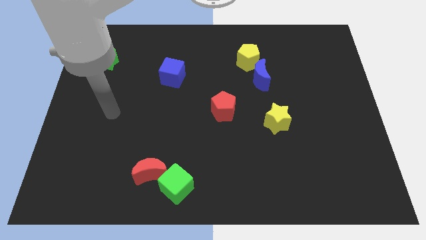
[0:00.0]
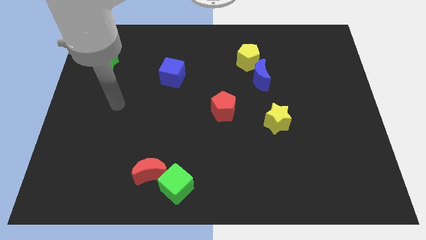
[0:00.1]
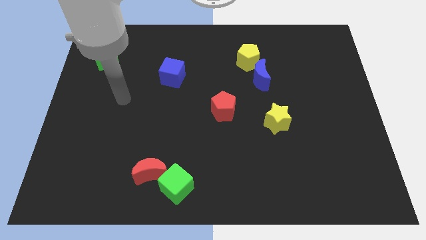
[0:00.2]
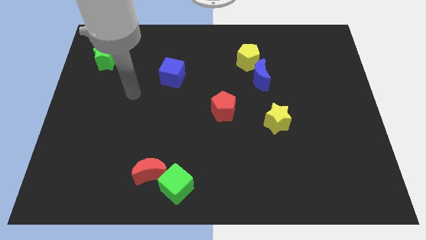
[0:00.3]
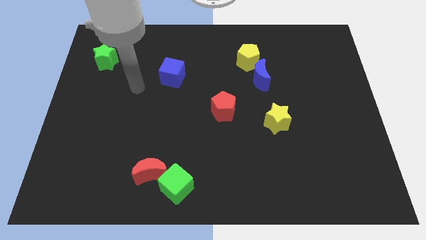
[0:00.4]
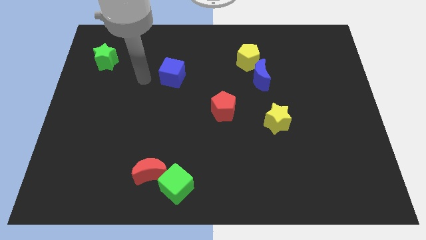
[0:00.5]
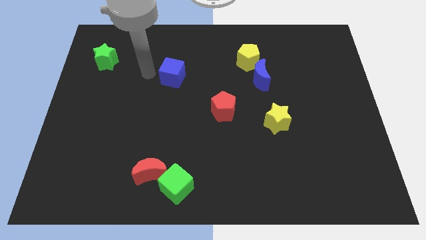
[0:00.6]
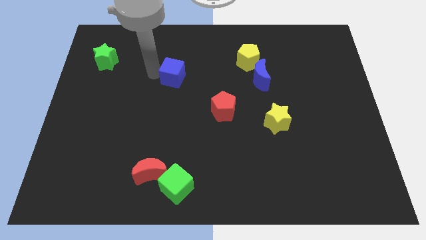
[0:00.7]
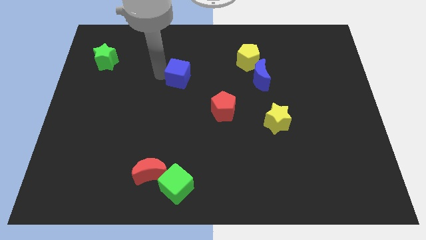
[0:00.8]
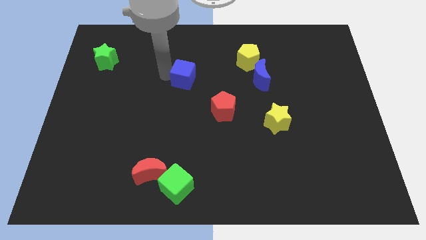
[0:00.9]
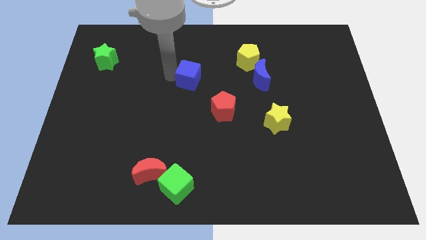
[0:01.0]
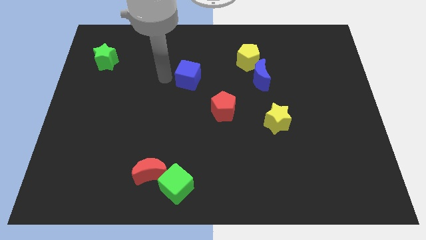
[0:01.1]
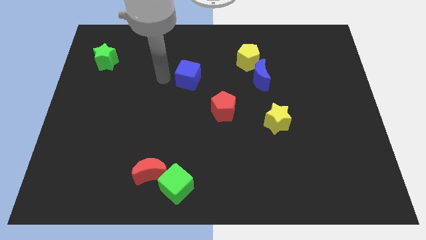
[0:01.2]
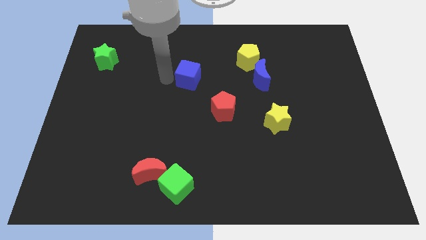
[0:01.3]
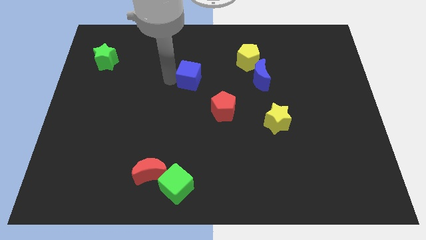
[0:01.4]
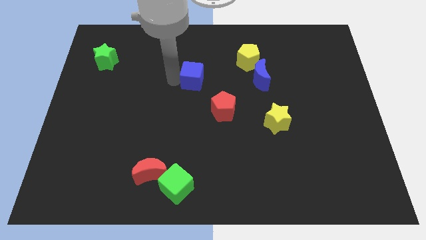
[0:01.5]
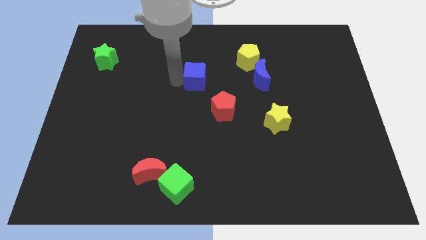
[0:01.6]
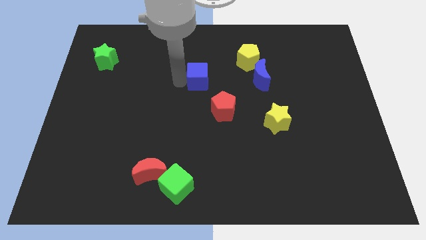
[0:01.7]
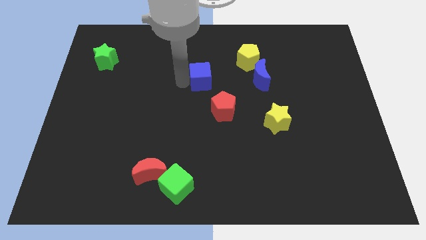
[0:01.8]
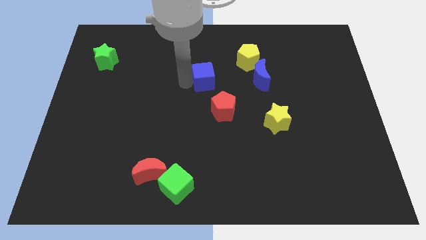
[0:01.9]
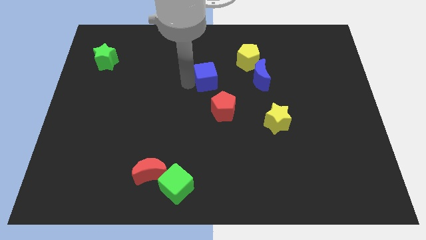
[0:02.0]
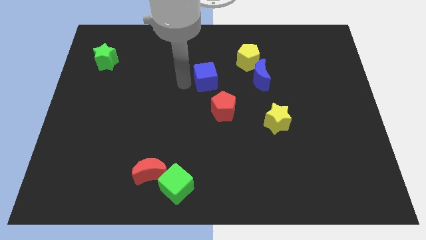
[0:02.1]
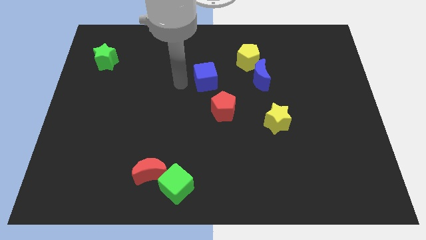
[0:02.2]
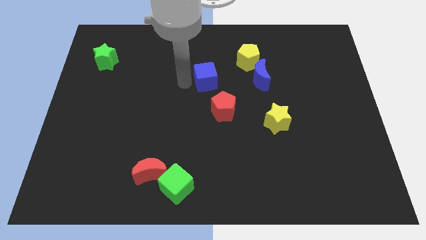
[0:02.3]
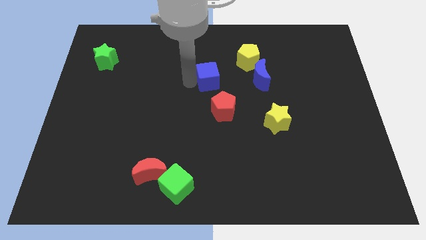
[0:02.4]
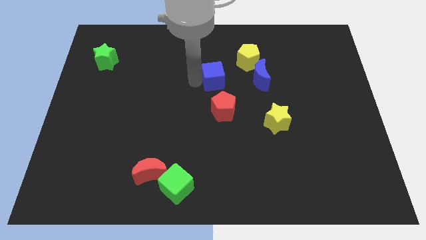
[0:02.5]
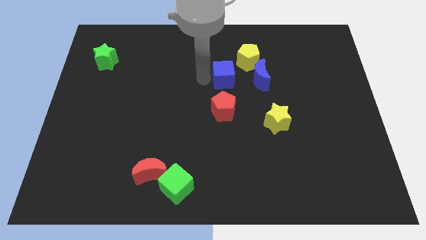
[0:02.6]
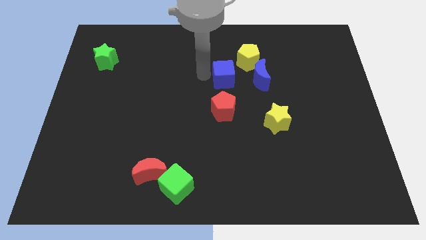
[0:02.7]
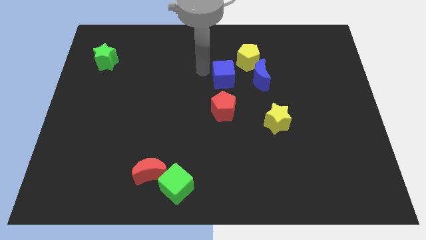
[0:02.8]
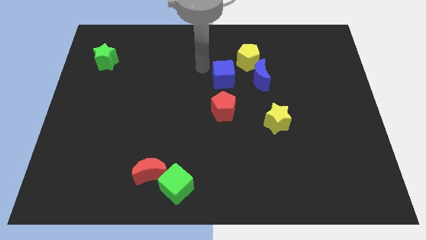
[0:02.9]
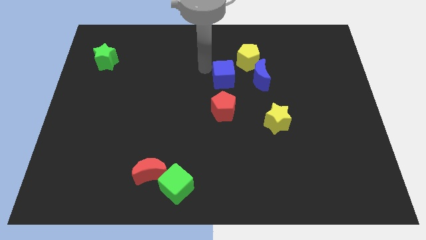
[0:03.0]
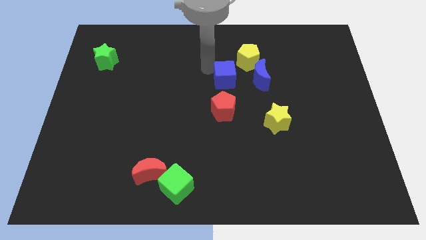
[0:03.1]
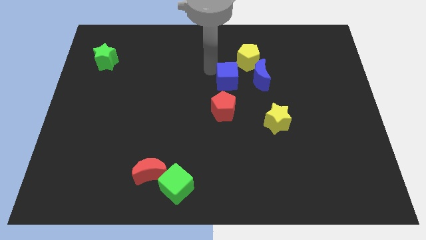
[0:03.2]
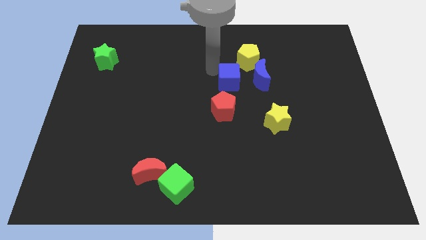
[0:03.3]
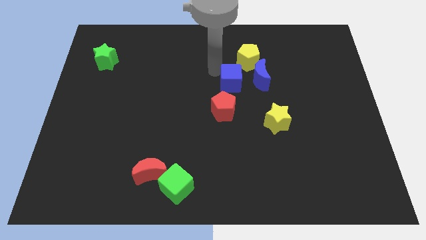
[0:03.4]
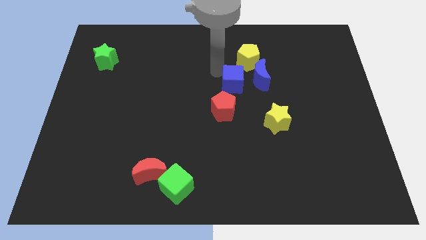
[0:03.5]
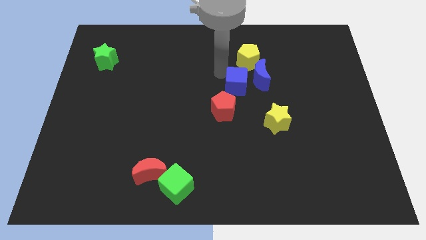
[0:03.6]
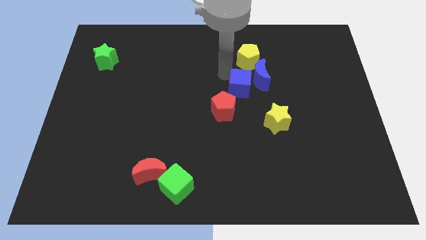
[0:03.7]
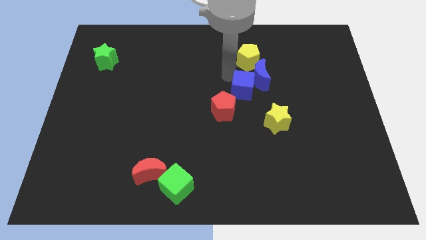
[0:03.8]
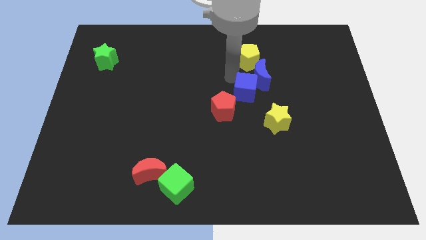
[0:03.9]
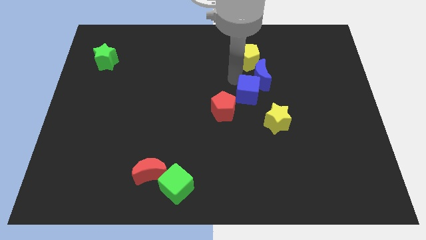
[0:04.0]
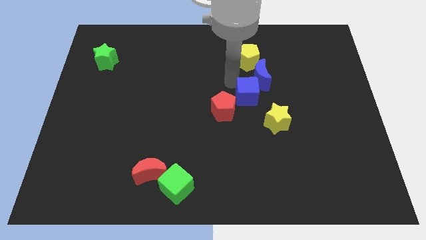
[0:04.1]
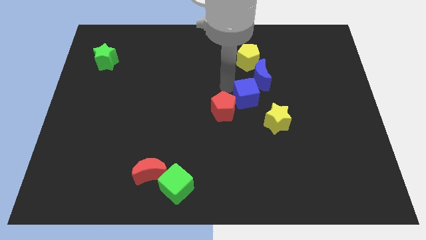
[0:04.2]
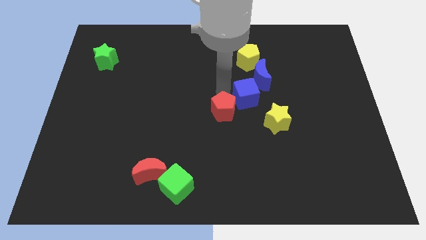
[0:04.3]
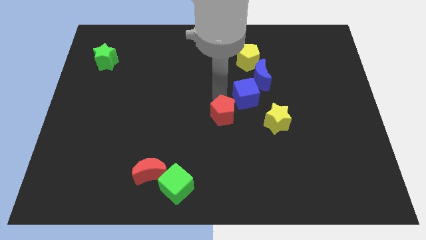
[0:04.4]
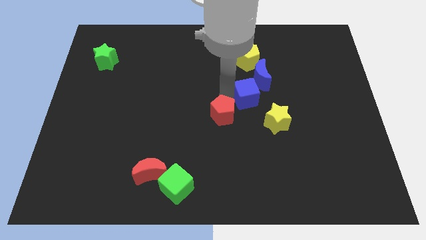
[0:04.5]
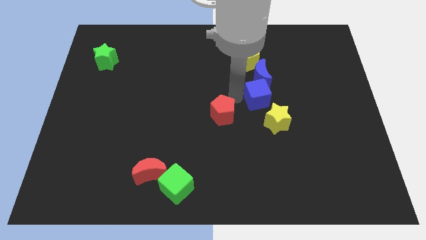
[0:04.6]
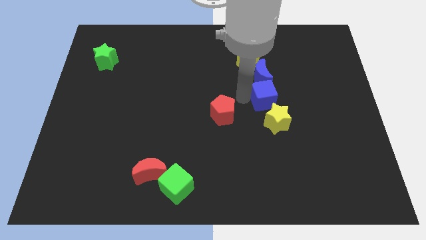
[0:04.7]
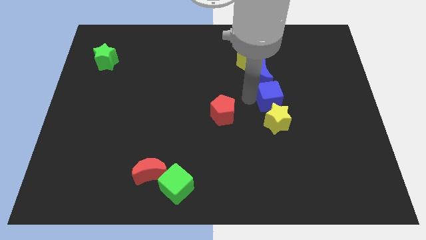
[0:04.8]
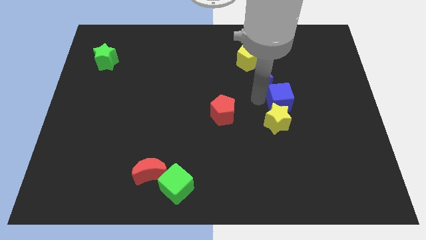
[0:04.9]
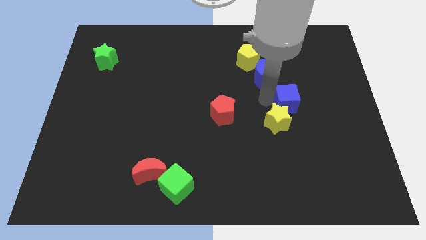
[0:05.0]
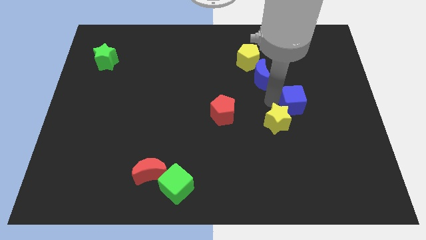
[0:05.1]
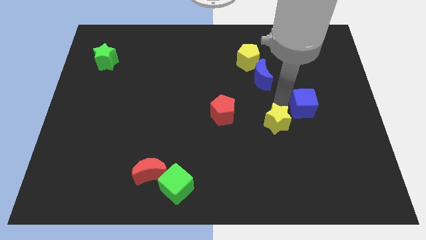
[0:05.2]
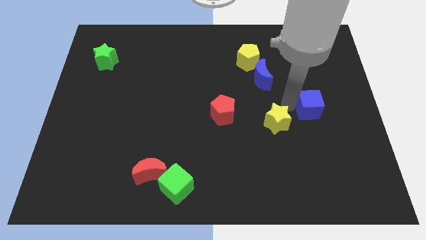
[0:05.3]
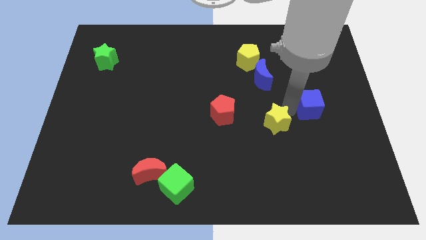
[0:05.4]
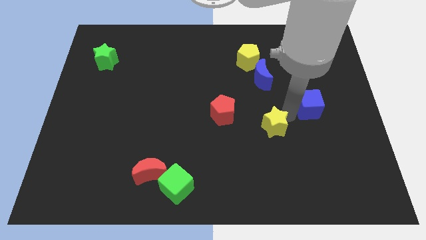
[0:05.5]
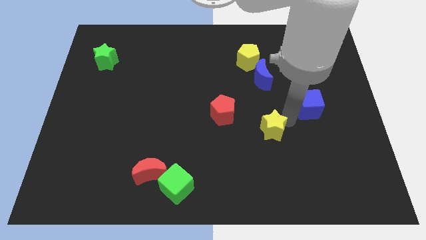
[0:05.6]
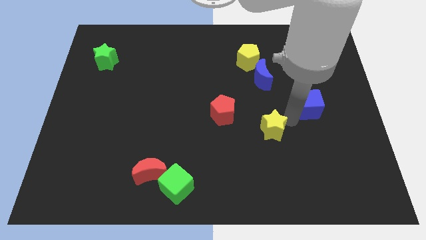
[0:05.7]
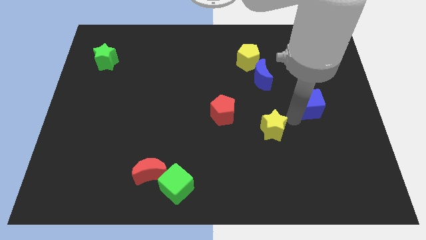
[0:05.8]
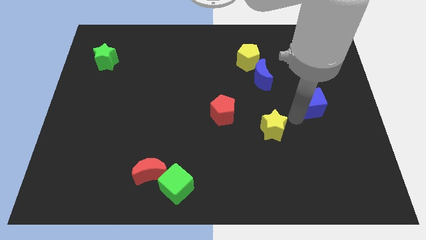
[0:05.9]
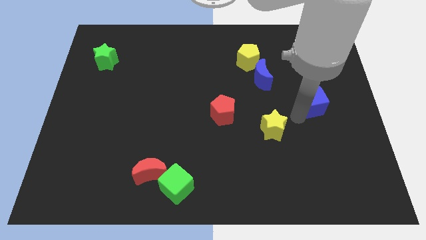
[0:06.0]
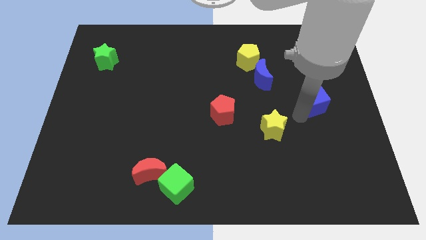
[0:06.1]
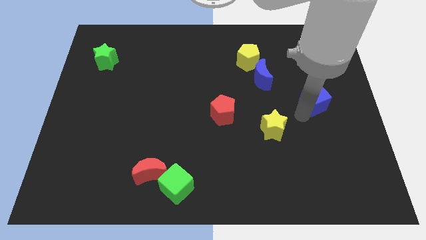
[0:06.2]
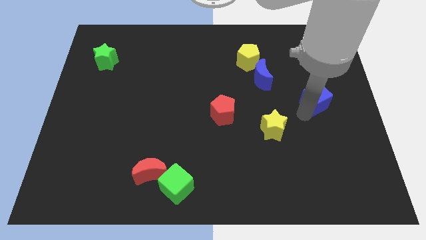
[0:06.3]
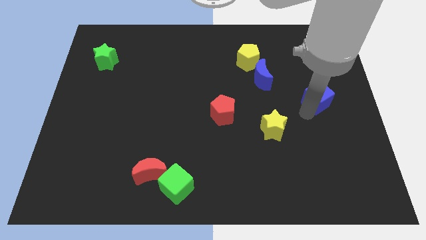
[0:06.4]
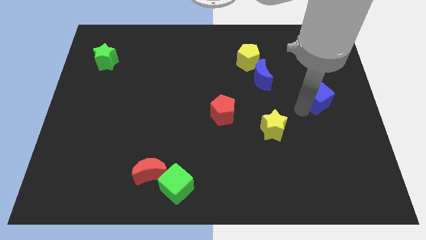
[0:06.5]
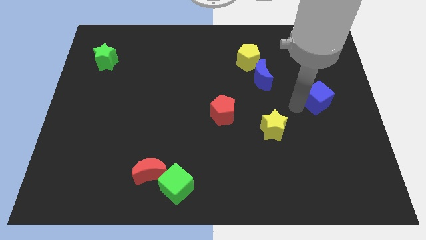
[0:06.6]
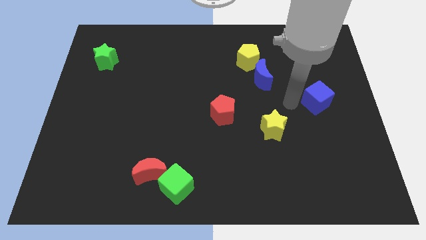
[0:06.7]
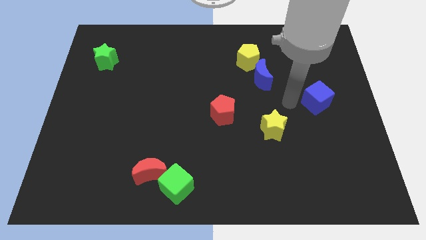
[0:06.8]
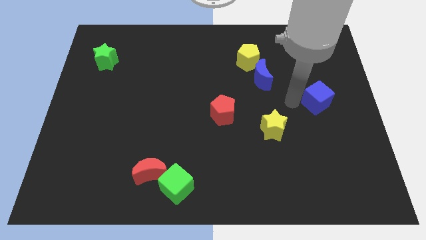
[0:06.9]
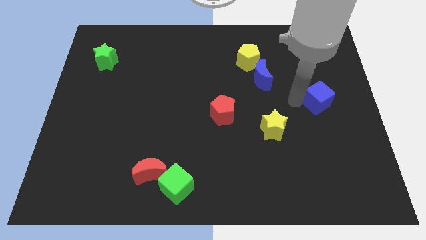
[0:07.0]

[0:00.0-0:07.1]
move the blue cube to the right side of the board

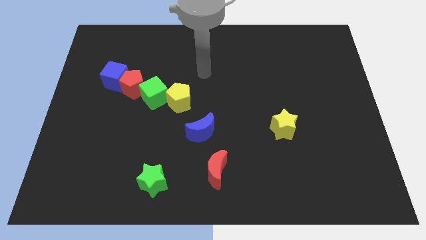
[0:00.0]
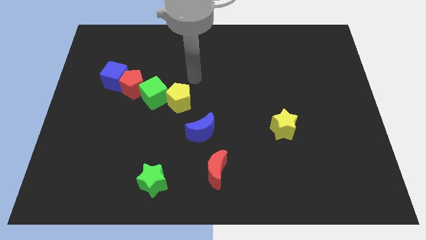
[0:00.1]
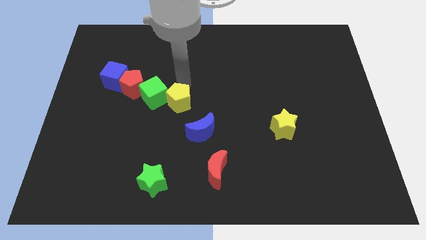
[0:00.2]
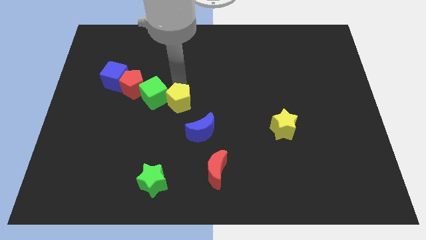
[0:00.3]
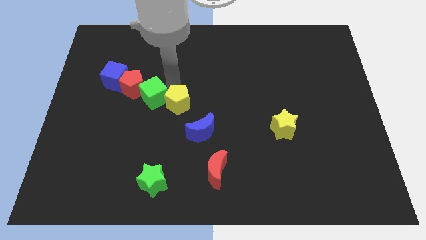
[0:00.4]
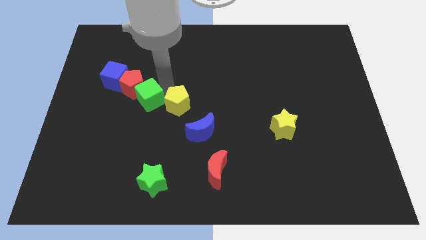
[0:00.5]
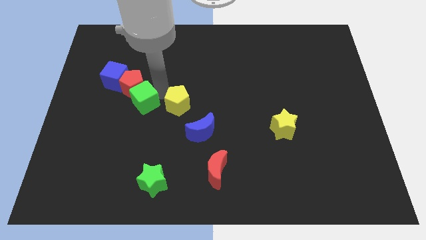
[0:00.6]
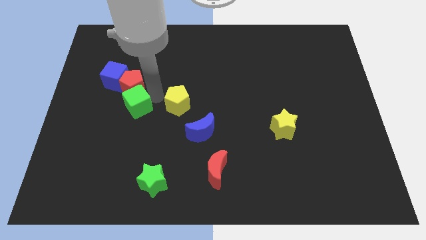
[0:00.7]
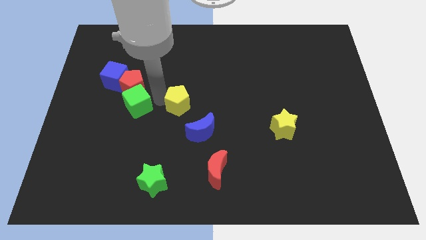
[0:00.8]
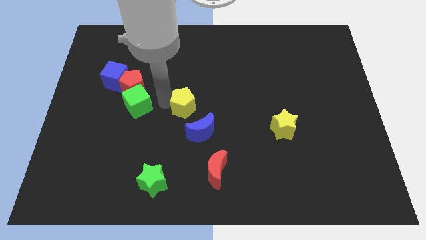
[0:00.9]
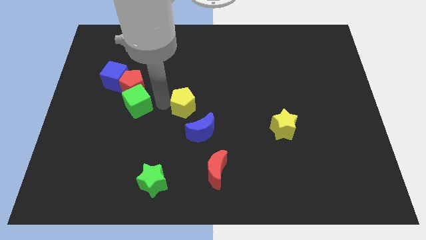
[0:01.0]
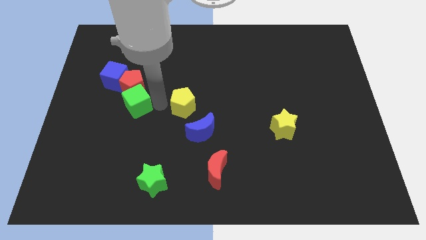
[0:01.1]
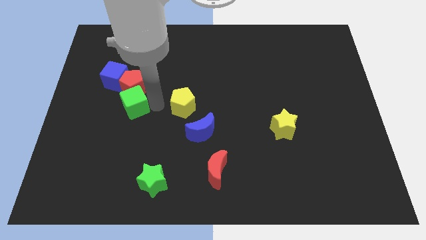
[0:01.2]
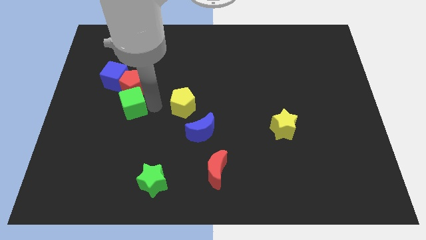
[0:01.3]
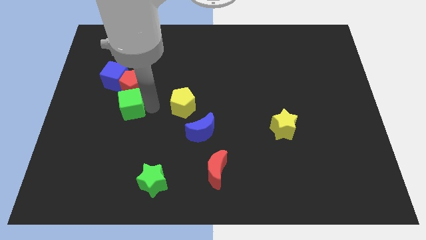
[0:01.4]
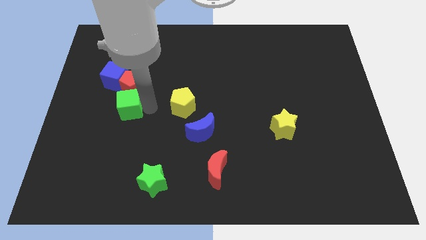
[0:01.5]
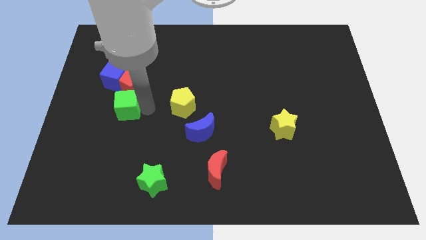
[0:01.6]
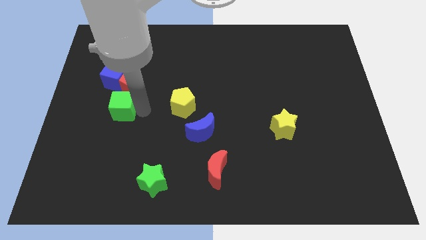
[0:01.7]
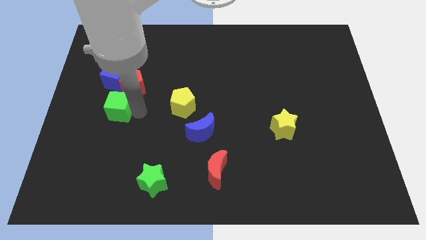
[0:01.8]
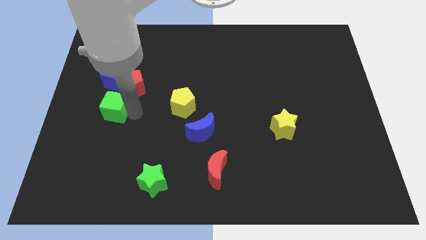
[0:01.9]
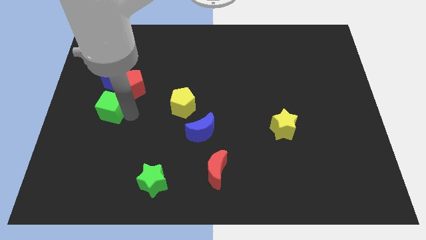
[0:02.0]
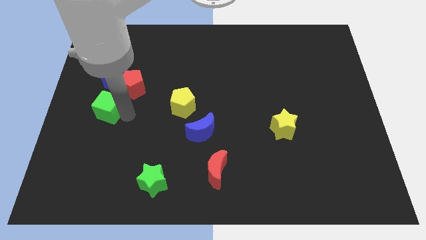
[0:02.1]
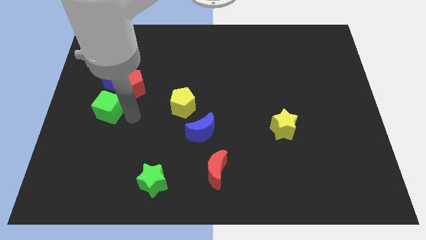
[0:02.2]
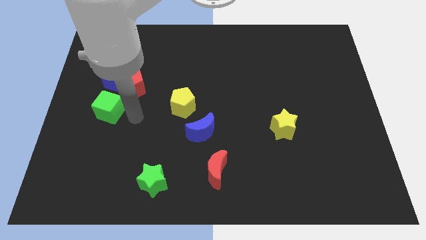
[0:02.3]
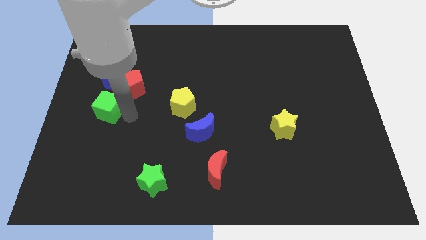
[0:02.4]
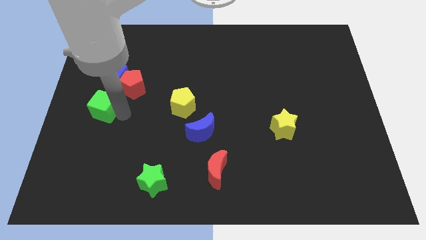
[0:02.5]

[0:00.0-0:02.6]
put the green cube to the left side
